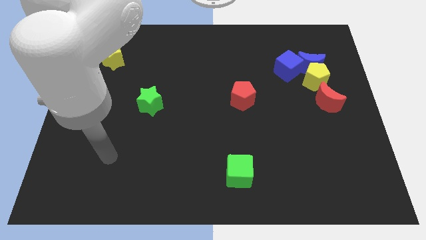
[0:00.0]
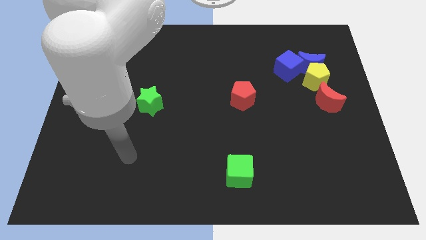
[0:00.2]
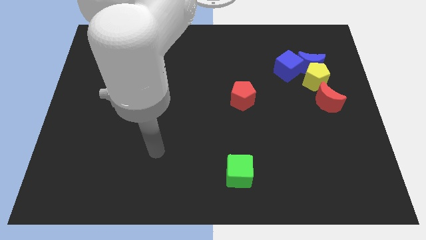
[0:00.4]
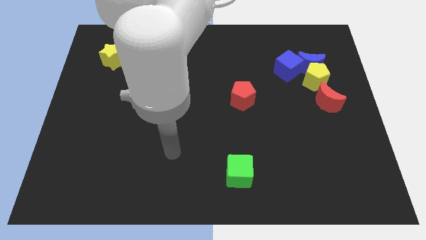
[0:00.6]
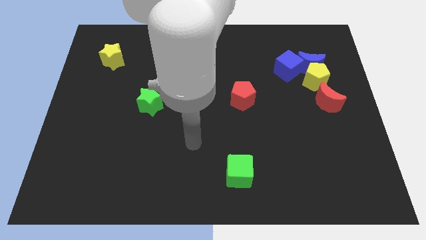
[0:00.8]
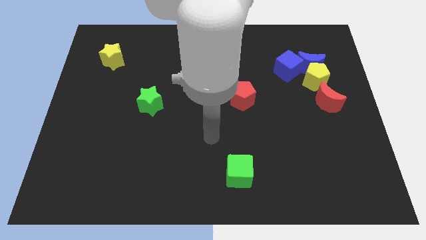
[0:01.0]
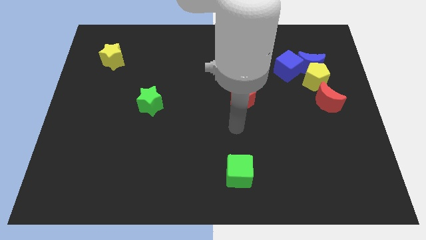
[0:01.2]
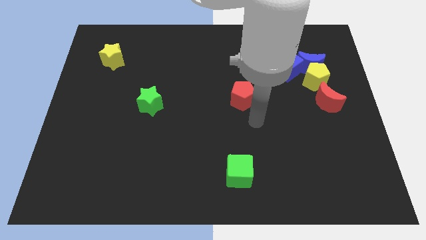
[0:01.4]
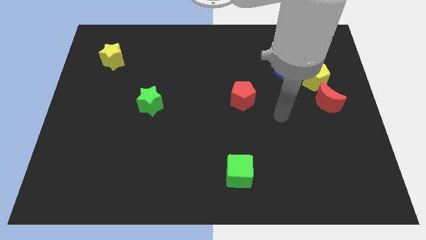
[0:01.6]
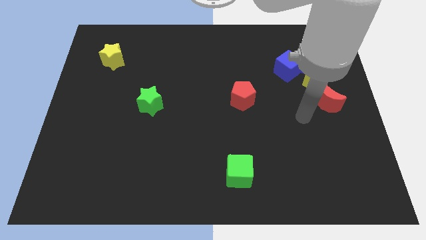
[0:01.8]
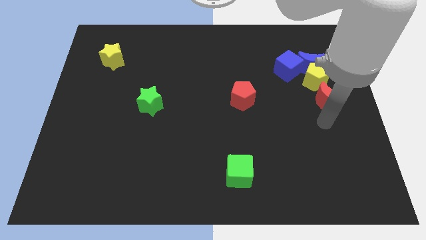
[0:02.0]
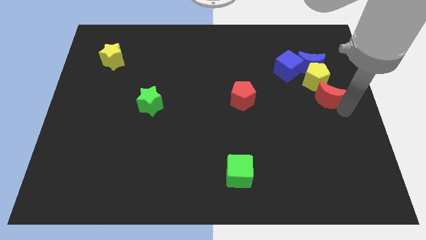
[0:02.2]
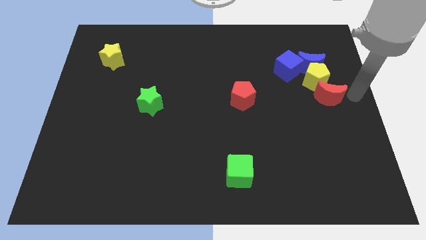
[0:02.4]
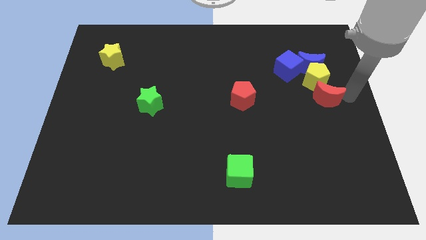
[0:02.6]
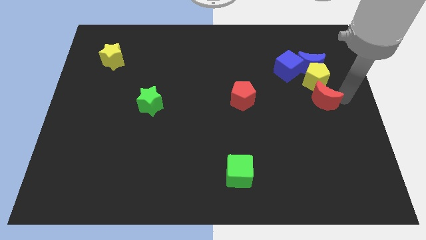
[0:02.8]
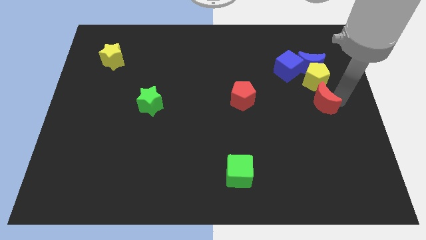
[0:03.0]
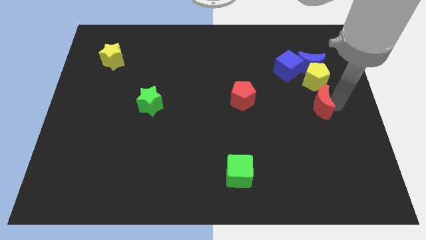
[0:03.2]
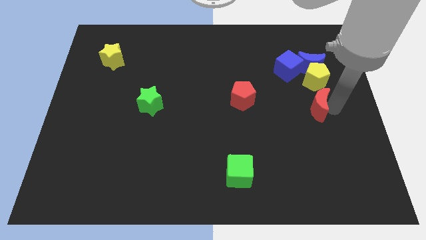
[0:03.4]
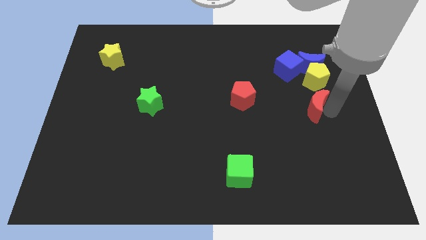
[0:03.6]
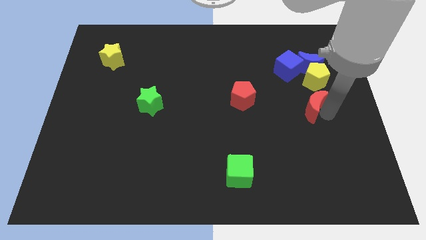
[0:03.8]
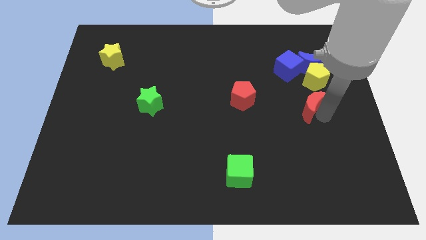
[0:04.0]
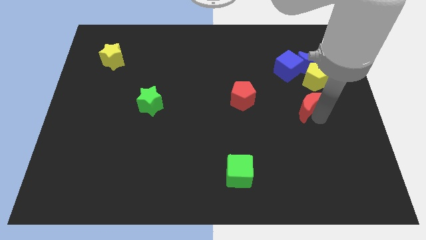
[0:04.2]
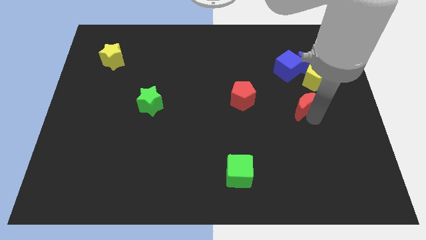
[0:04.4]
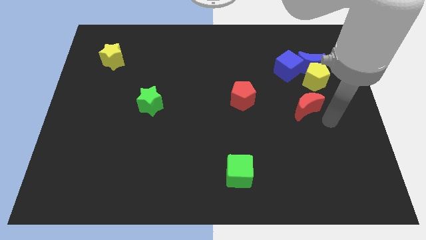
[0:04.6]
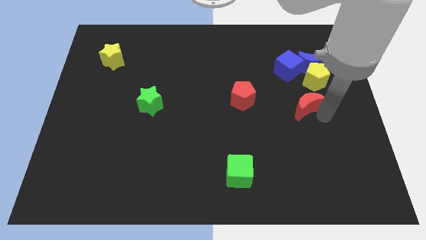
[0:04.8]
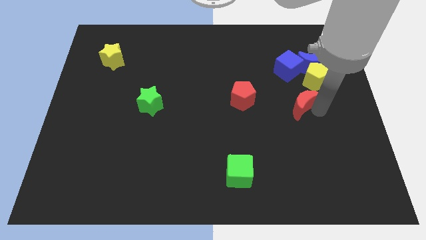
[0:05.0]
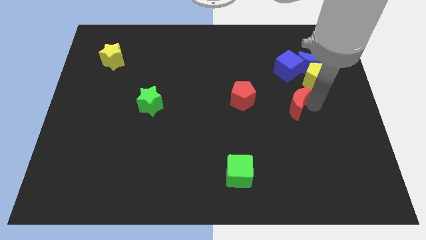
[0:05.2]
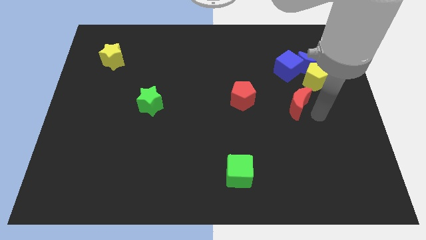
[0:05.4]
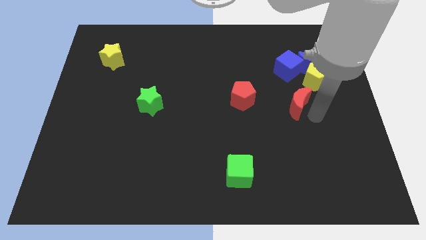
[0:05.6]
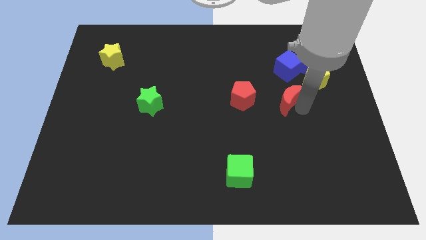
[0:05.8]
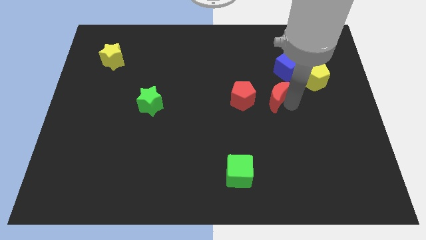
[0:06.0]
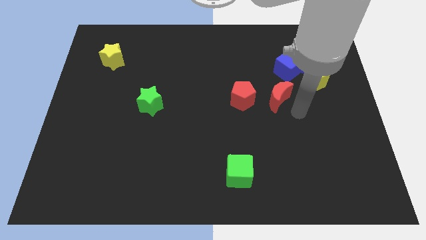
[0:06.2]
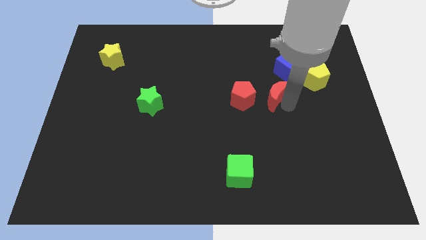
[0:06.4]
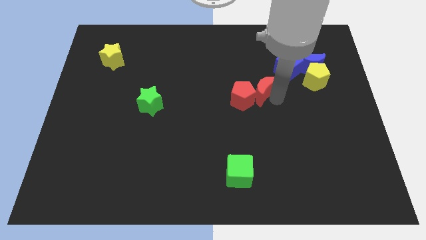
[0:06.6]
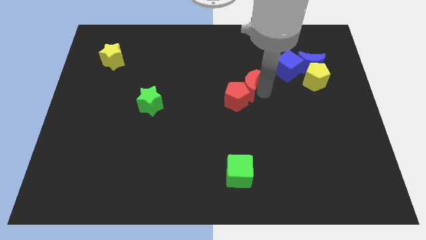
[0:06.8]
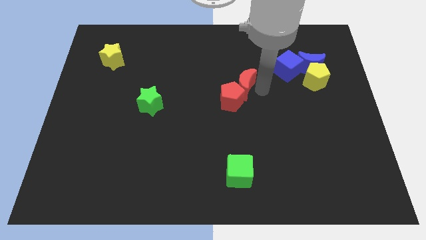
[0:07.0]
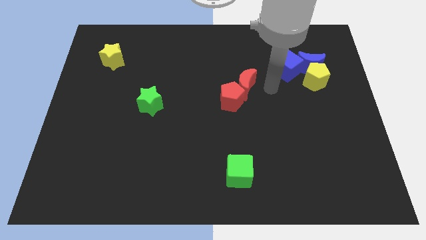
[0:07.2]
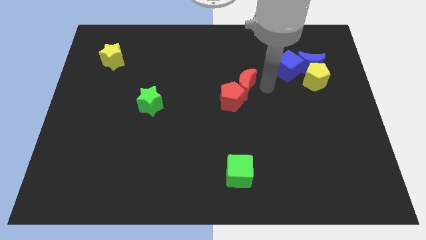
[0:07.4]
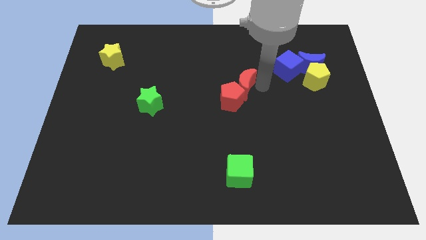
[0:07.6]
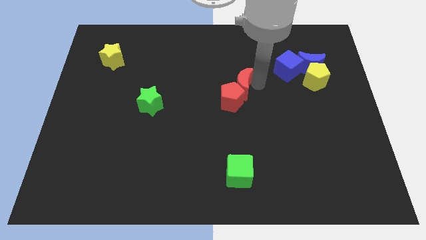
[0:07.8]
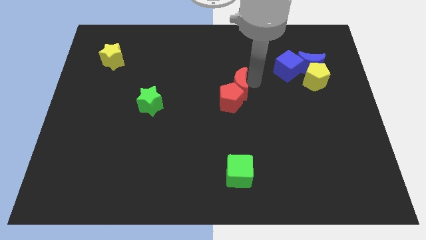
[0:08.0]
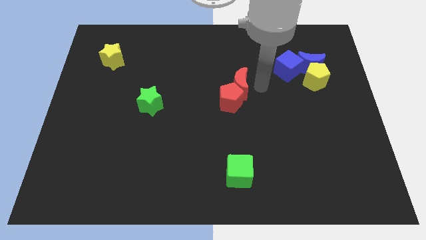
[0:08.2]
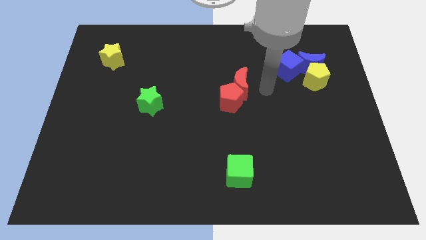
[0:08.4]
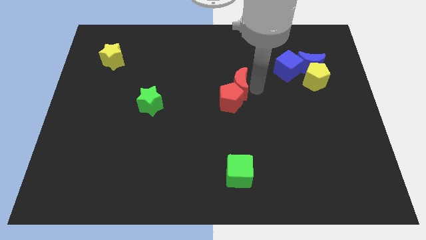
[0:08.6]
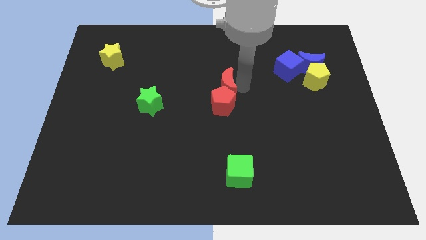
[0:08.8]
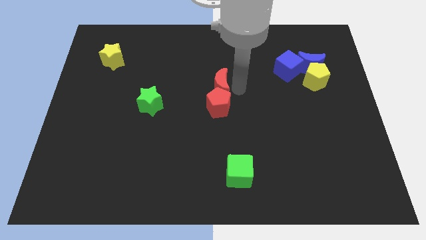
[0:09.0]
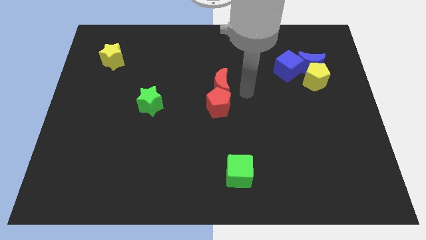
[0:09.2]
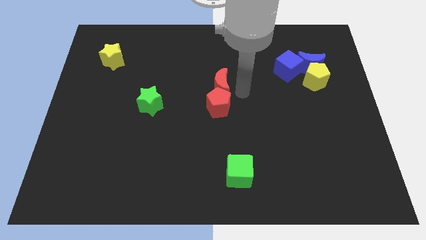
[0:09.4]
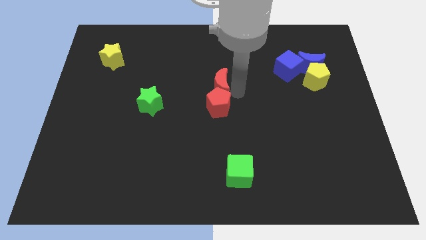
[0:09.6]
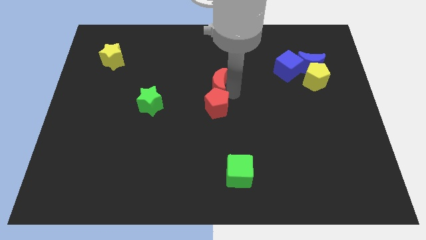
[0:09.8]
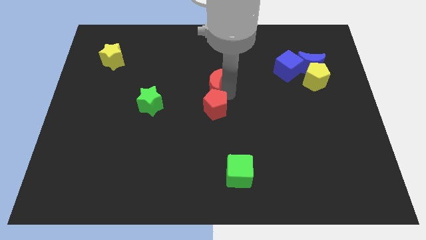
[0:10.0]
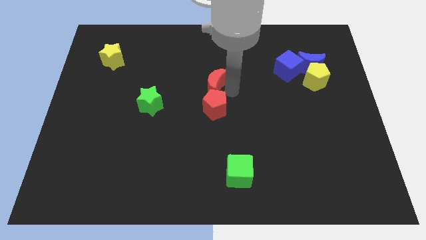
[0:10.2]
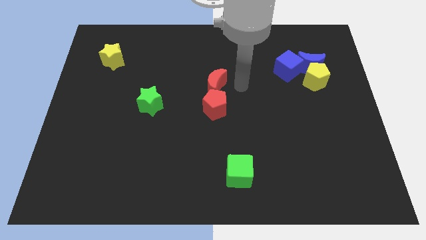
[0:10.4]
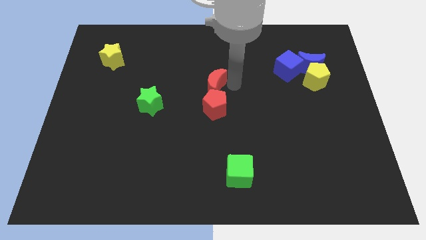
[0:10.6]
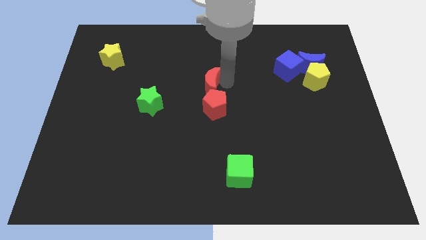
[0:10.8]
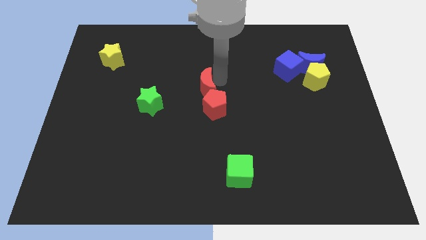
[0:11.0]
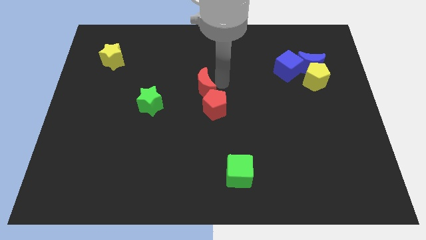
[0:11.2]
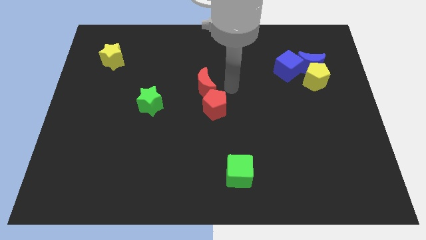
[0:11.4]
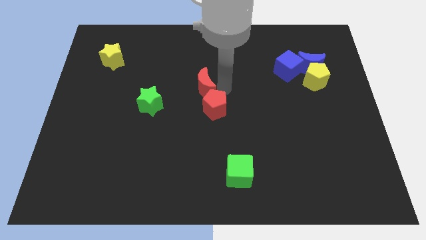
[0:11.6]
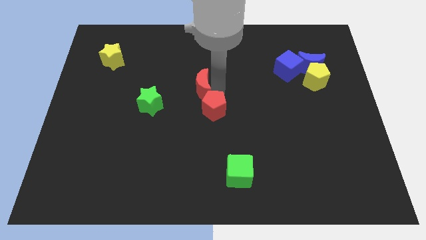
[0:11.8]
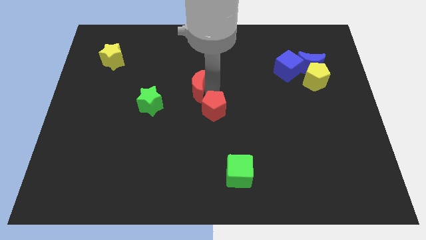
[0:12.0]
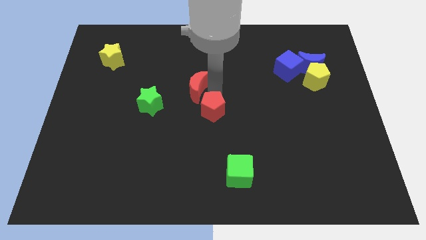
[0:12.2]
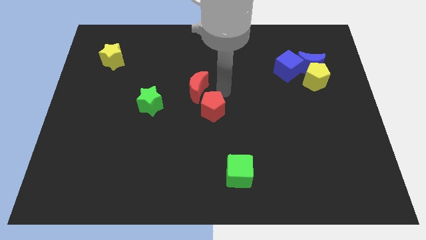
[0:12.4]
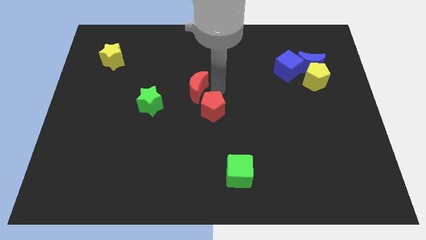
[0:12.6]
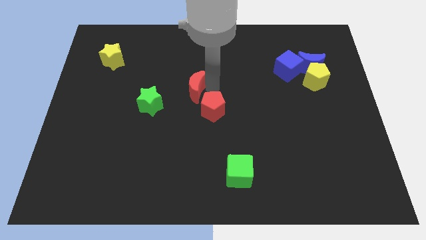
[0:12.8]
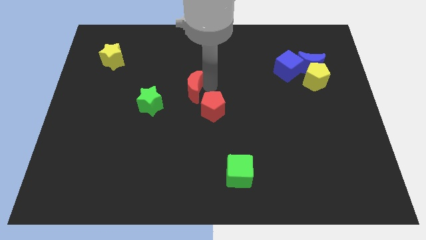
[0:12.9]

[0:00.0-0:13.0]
push the red moon to the top right side of the green star

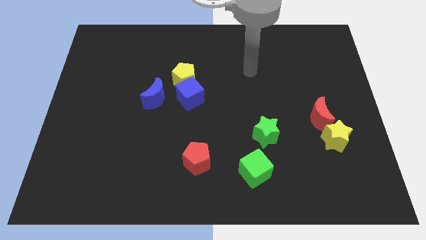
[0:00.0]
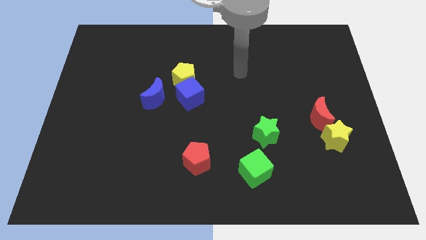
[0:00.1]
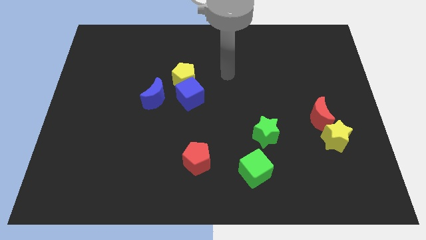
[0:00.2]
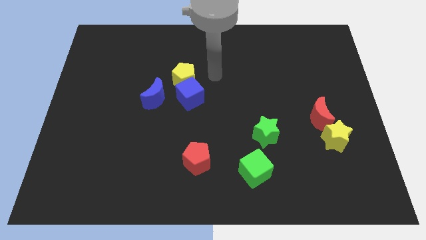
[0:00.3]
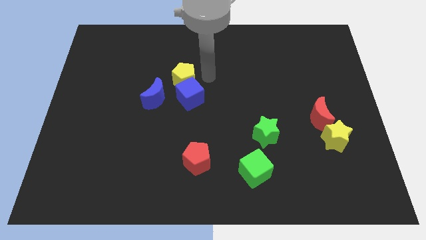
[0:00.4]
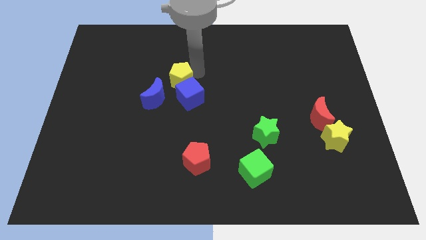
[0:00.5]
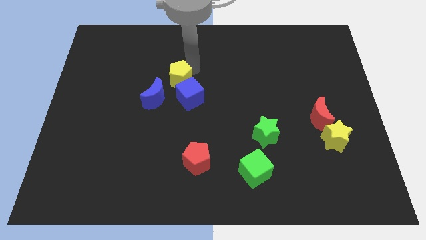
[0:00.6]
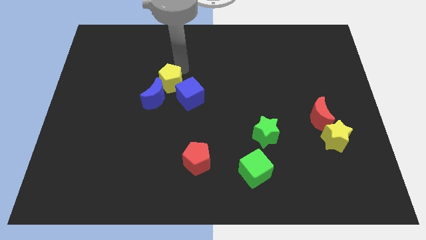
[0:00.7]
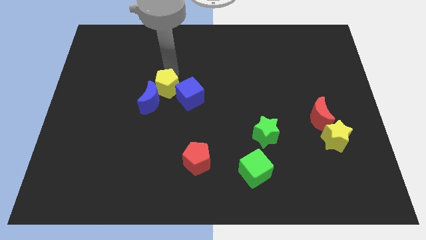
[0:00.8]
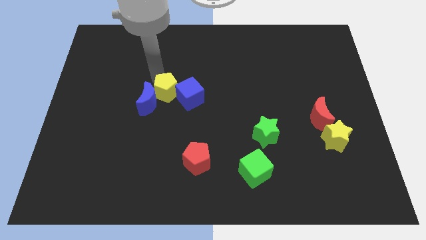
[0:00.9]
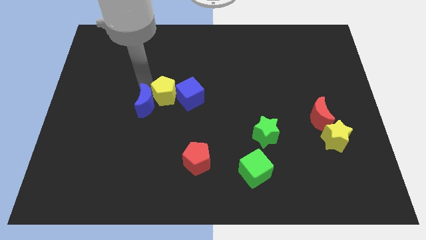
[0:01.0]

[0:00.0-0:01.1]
push the yellow pentagon to the bottom left of the blue cube
